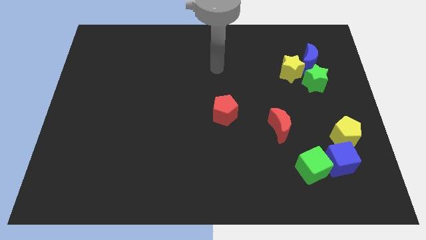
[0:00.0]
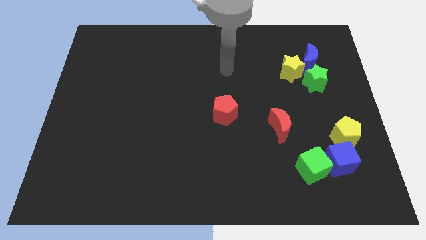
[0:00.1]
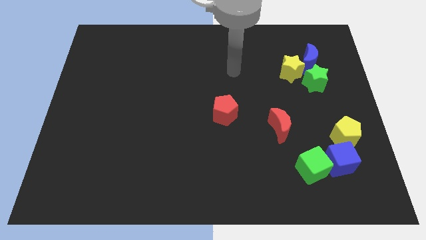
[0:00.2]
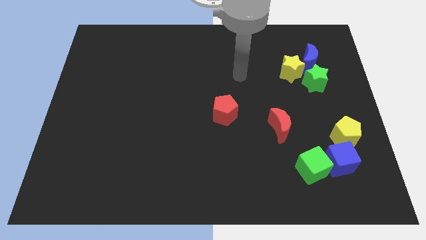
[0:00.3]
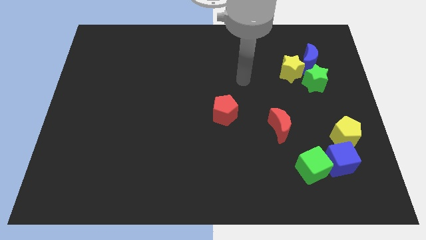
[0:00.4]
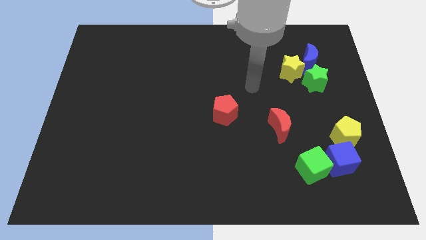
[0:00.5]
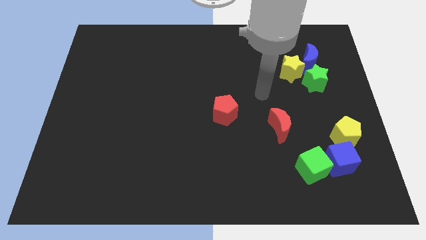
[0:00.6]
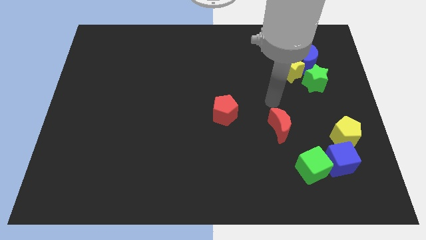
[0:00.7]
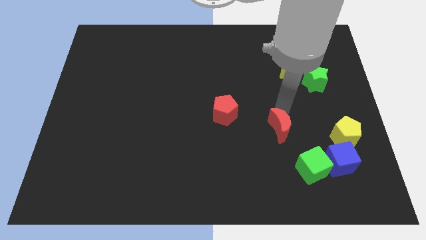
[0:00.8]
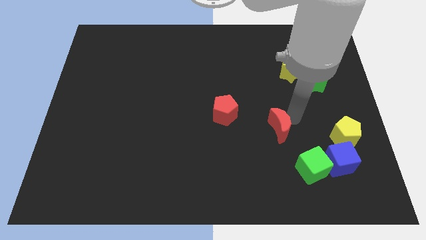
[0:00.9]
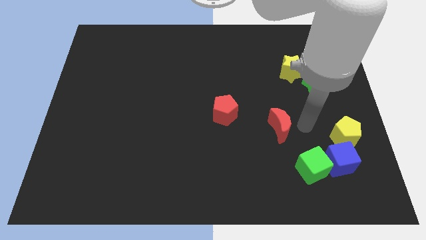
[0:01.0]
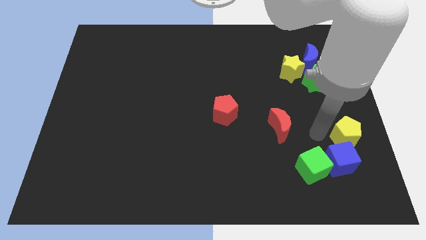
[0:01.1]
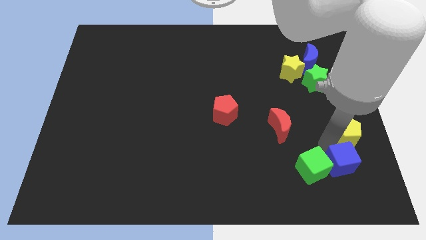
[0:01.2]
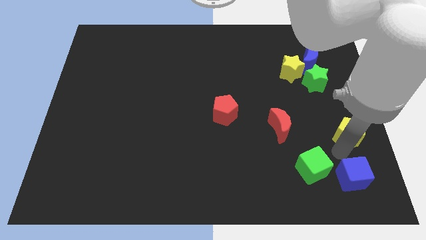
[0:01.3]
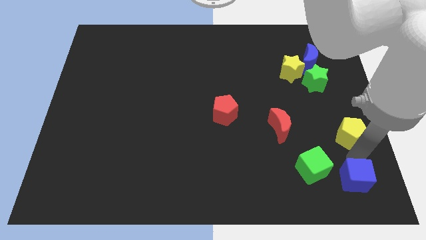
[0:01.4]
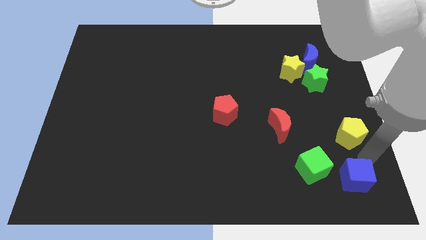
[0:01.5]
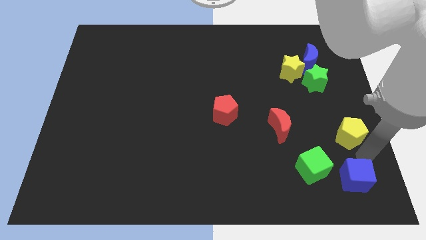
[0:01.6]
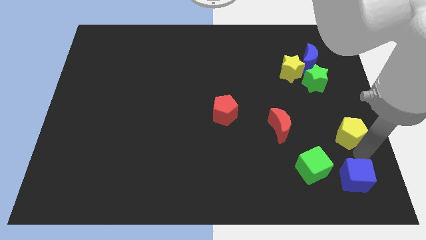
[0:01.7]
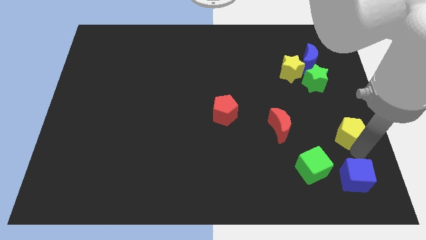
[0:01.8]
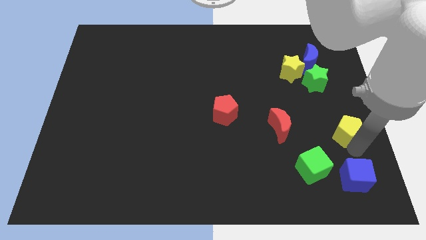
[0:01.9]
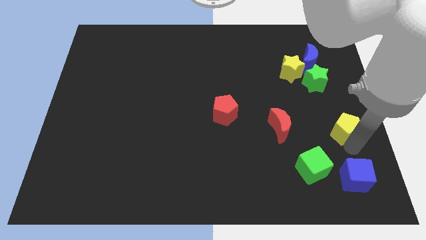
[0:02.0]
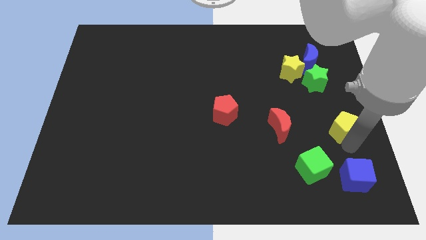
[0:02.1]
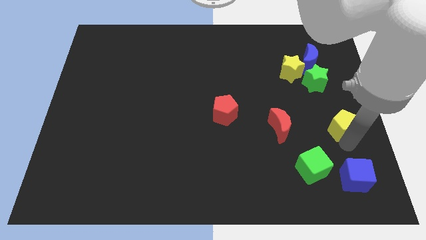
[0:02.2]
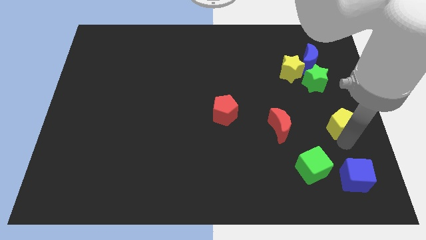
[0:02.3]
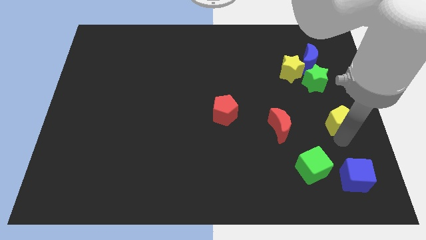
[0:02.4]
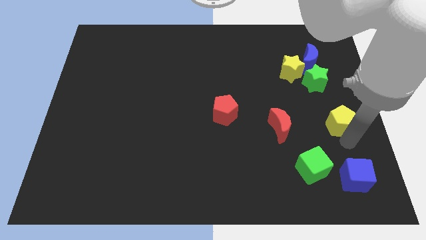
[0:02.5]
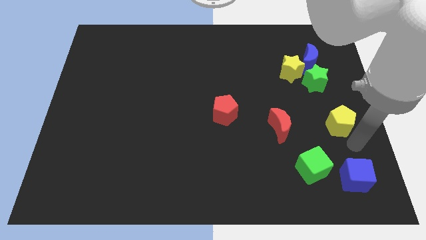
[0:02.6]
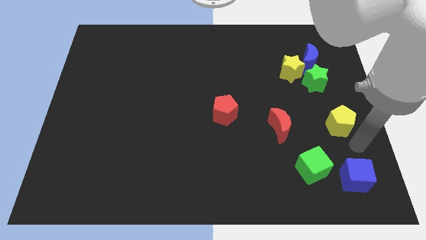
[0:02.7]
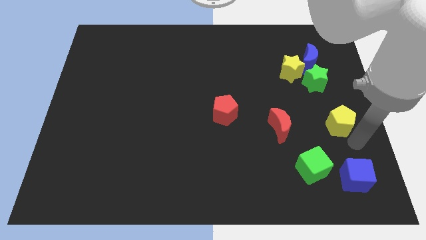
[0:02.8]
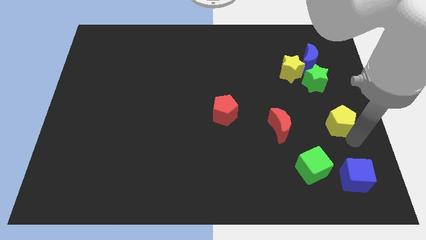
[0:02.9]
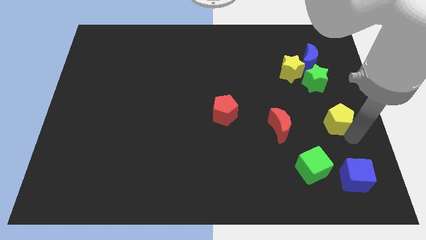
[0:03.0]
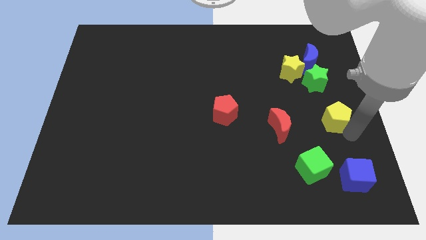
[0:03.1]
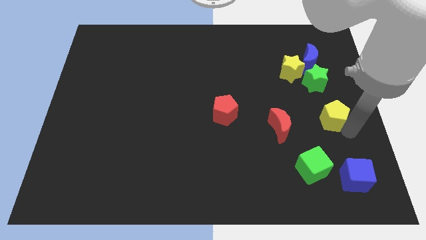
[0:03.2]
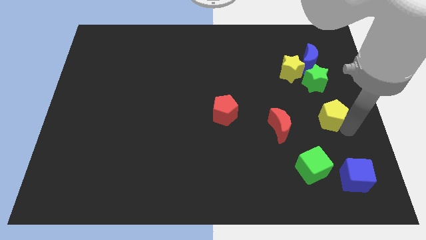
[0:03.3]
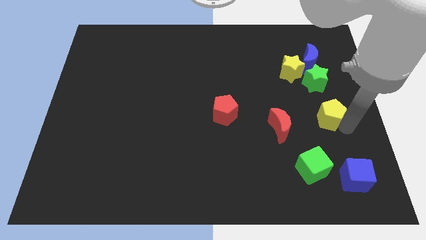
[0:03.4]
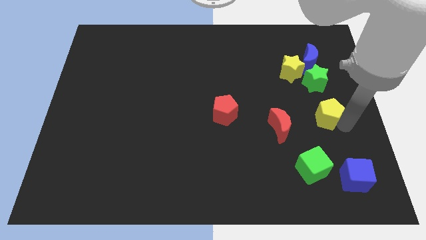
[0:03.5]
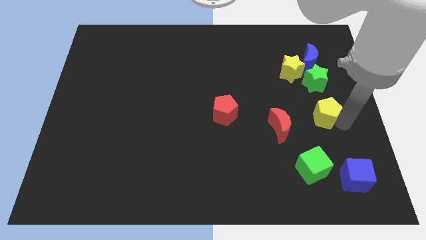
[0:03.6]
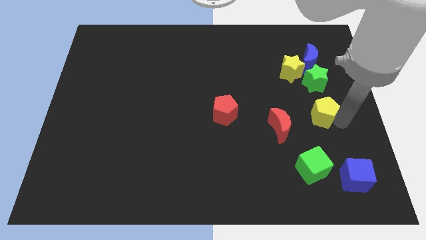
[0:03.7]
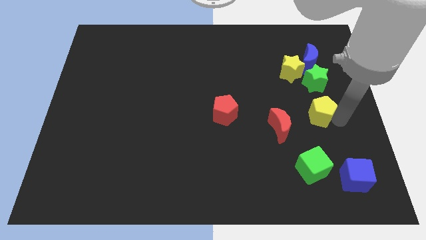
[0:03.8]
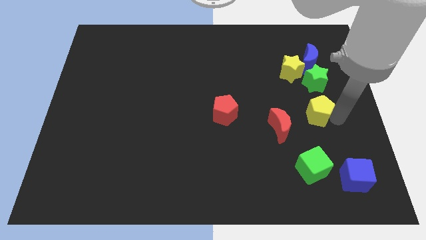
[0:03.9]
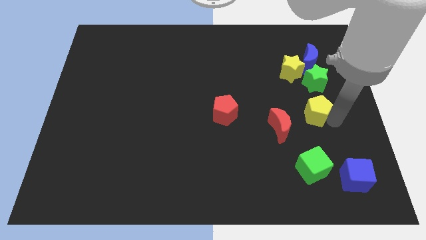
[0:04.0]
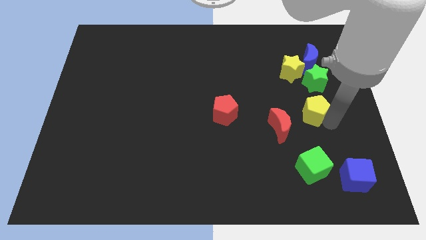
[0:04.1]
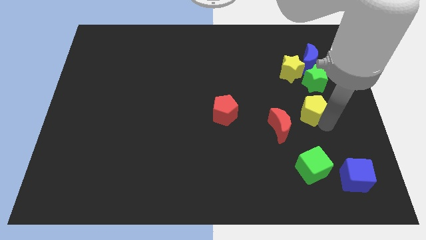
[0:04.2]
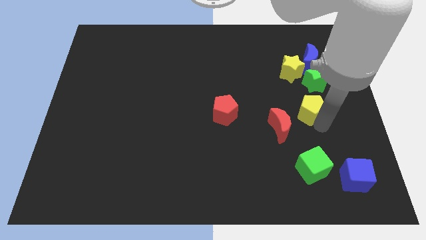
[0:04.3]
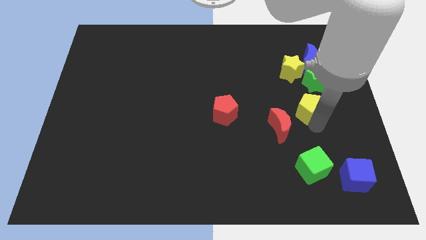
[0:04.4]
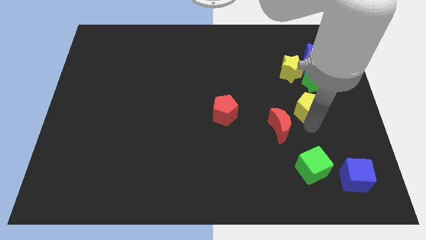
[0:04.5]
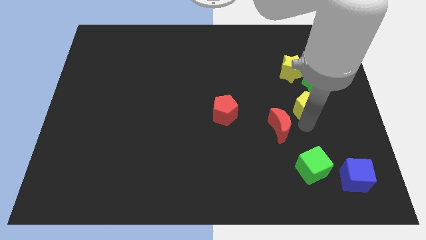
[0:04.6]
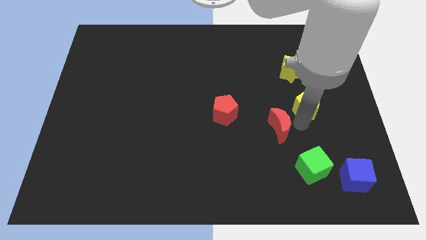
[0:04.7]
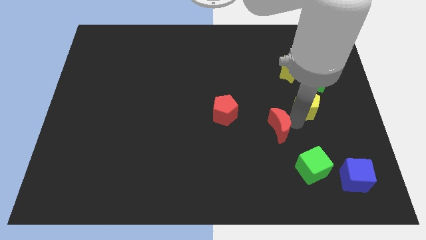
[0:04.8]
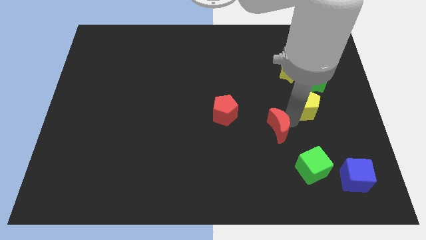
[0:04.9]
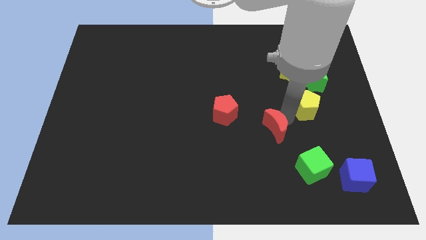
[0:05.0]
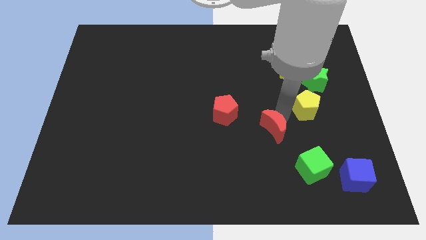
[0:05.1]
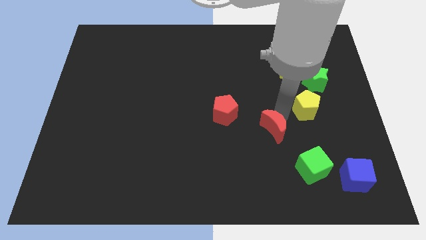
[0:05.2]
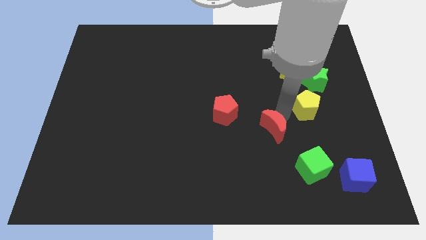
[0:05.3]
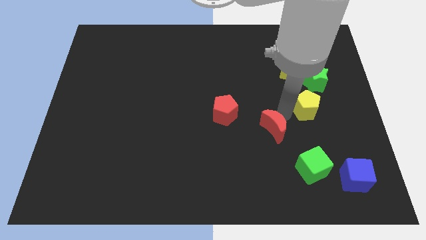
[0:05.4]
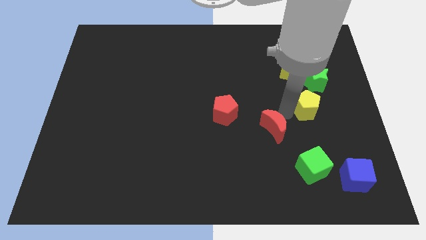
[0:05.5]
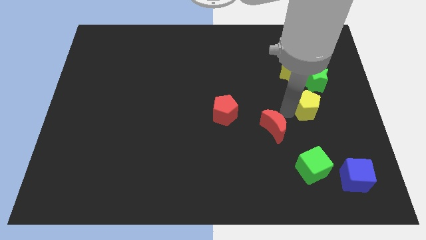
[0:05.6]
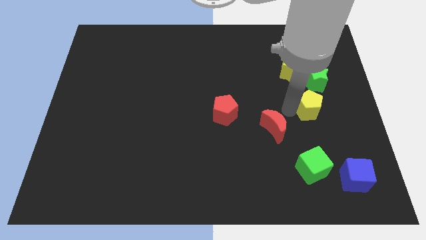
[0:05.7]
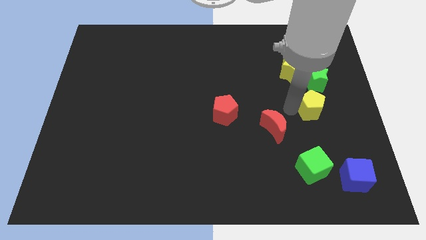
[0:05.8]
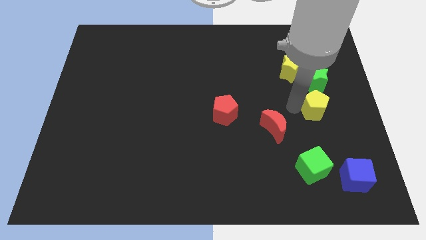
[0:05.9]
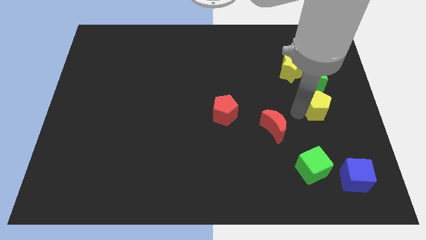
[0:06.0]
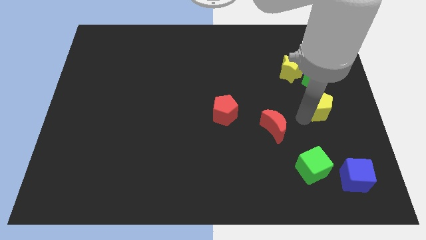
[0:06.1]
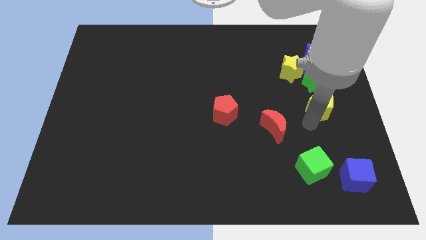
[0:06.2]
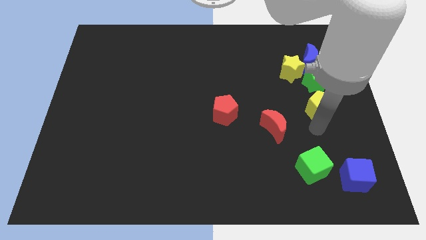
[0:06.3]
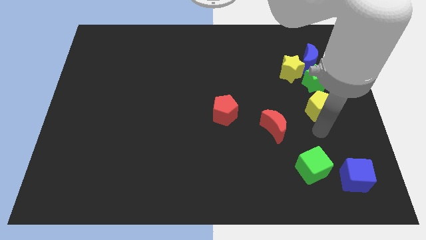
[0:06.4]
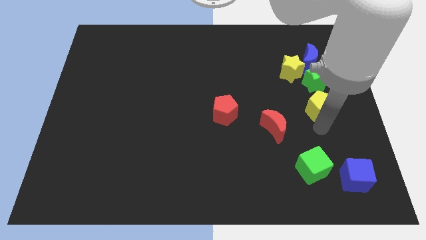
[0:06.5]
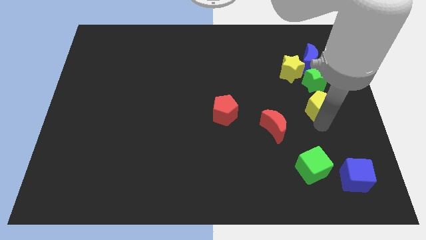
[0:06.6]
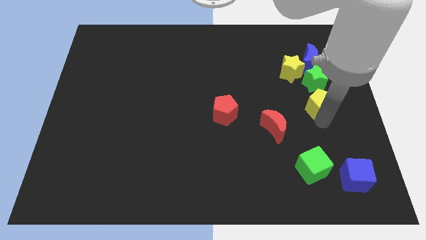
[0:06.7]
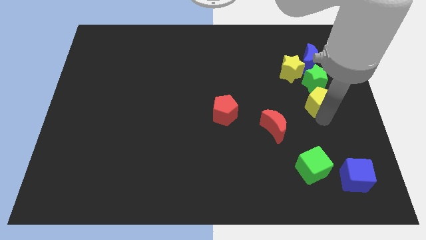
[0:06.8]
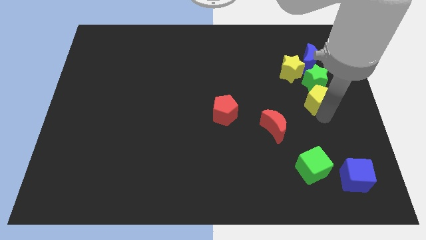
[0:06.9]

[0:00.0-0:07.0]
move the yellow pentagon close to the green star
